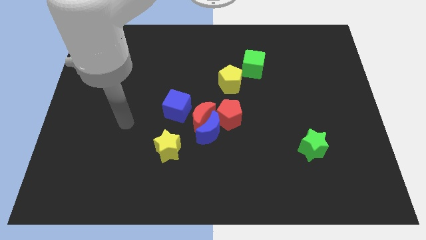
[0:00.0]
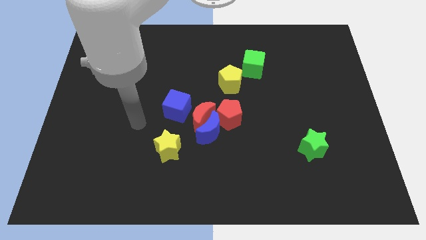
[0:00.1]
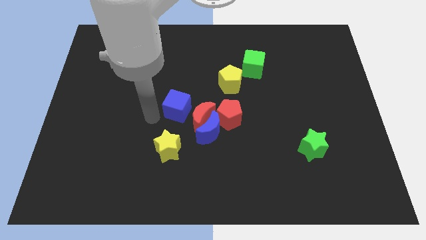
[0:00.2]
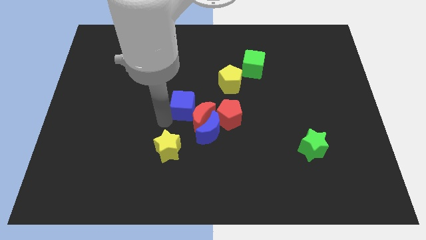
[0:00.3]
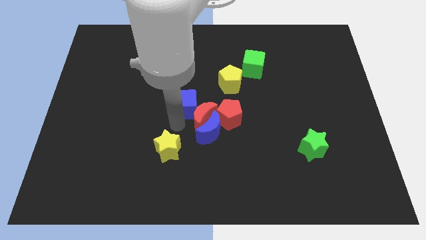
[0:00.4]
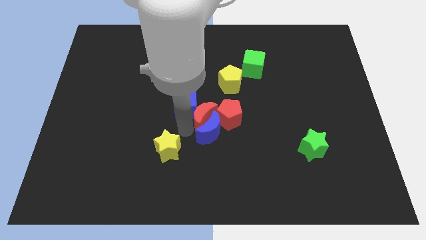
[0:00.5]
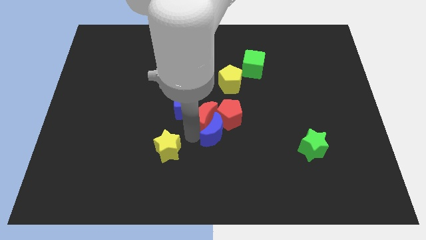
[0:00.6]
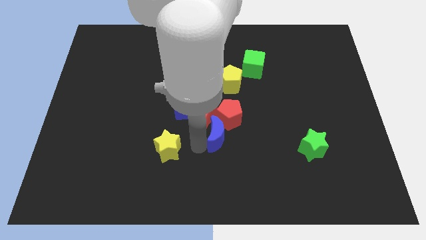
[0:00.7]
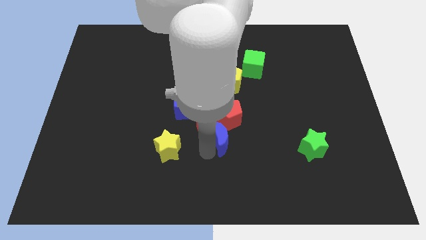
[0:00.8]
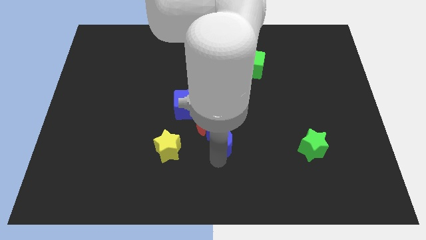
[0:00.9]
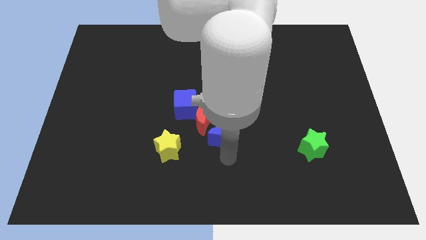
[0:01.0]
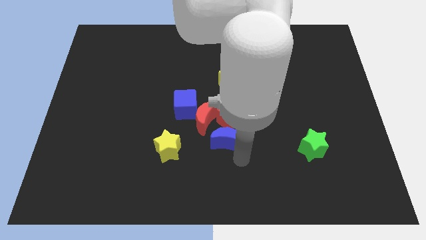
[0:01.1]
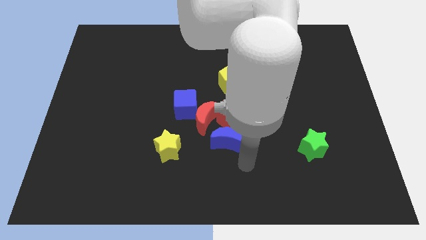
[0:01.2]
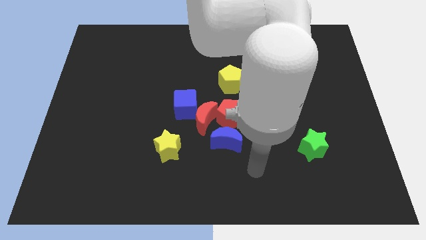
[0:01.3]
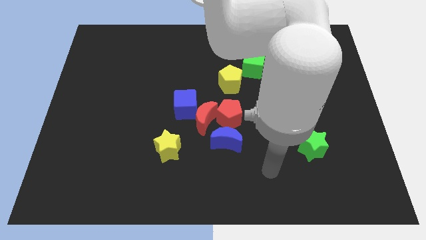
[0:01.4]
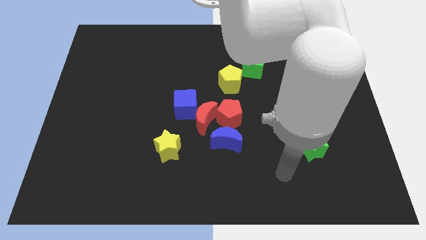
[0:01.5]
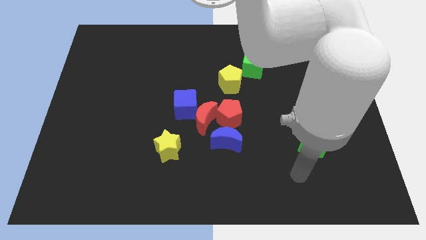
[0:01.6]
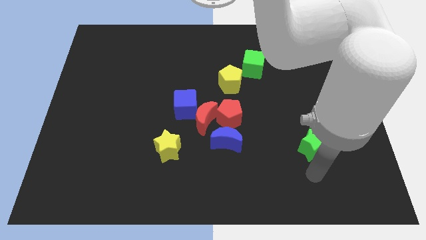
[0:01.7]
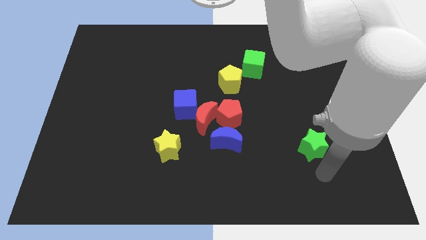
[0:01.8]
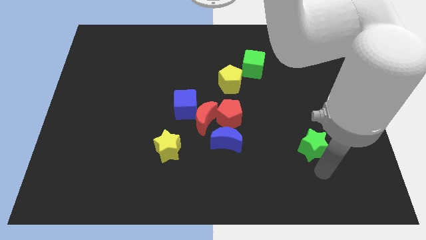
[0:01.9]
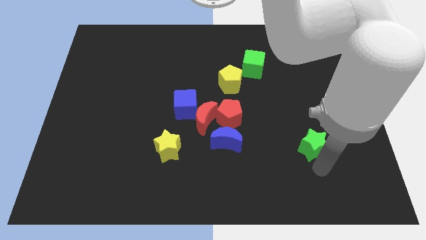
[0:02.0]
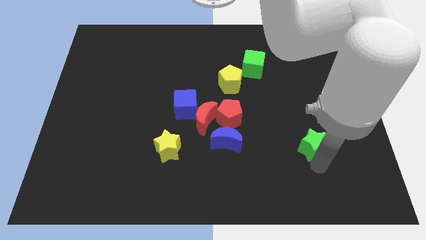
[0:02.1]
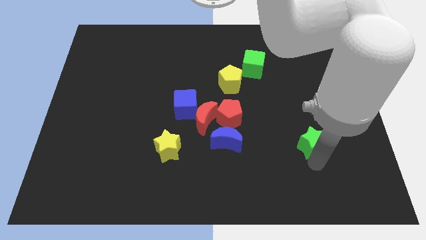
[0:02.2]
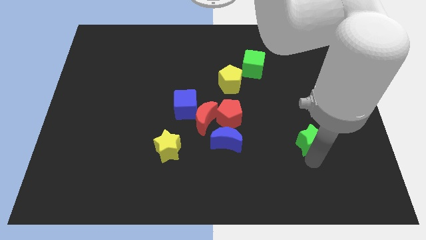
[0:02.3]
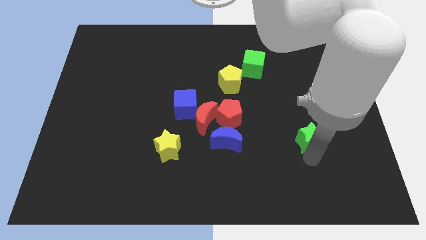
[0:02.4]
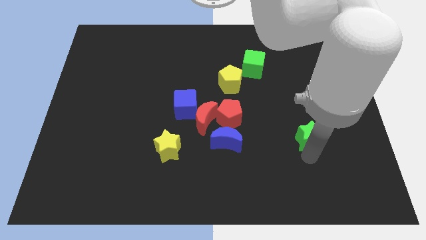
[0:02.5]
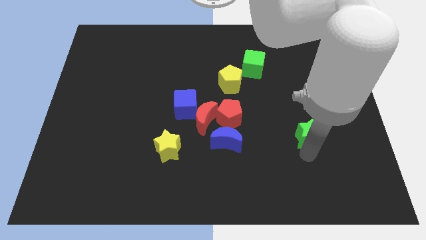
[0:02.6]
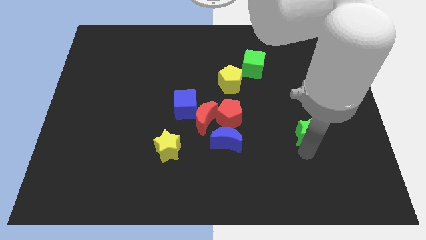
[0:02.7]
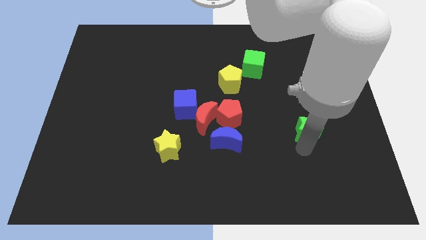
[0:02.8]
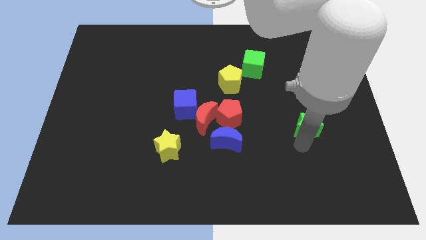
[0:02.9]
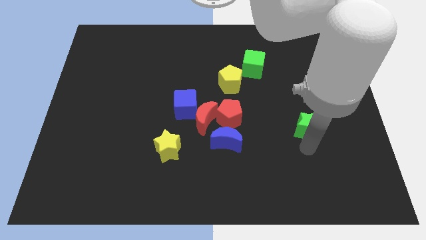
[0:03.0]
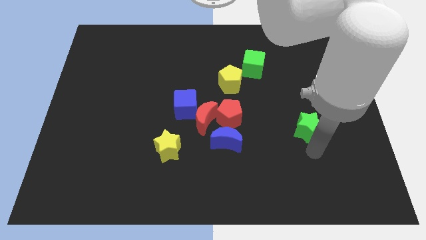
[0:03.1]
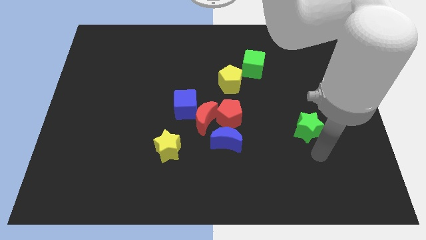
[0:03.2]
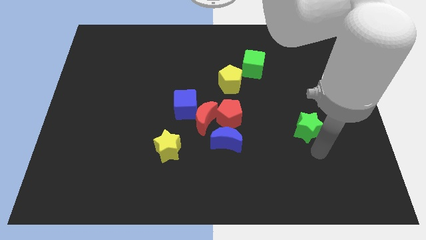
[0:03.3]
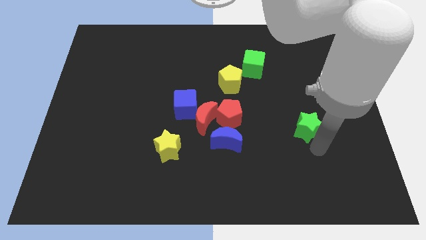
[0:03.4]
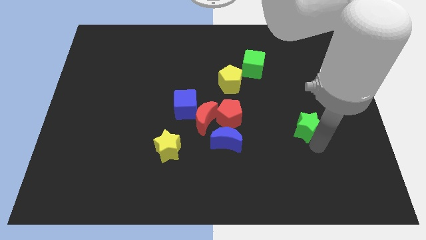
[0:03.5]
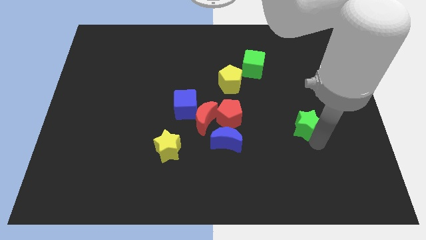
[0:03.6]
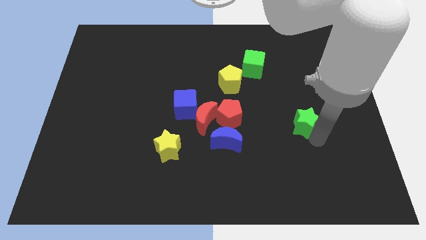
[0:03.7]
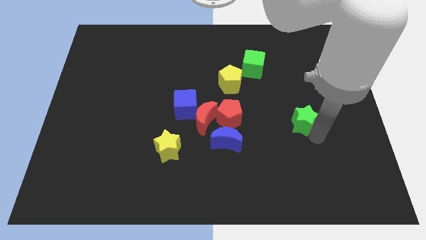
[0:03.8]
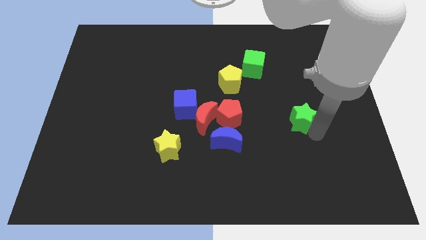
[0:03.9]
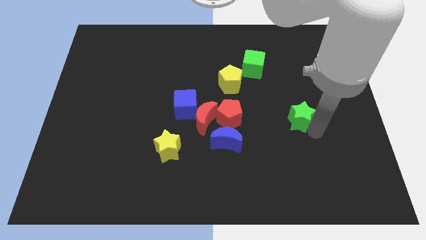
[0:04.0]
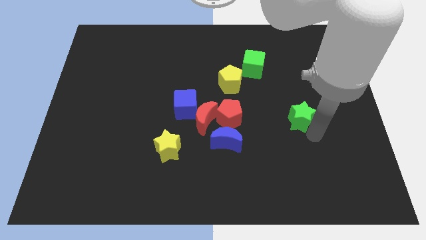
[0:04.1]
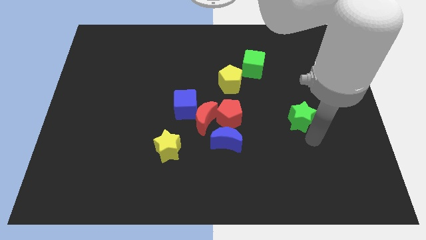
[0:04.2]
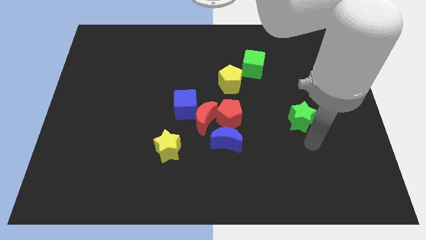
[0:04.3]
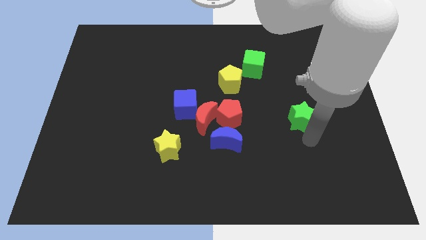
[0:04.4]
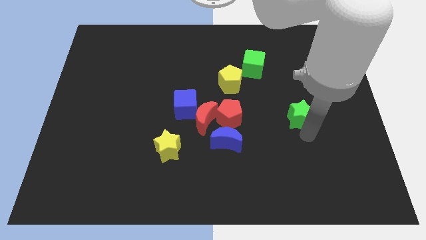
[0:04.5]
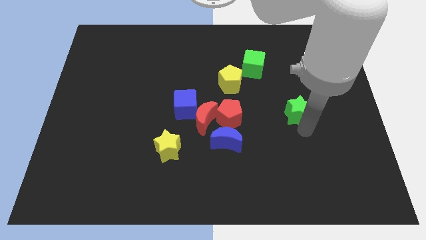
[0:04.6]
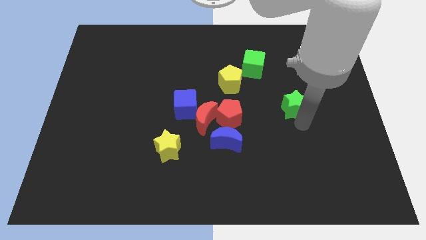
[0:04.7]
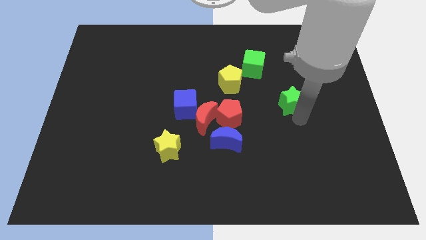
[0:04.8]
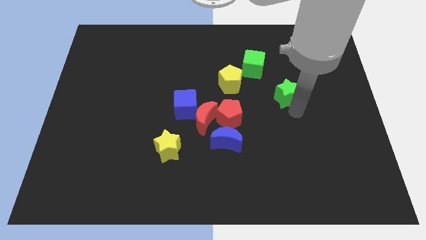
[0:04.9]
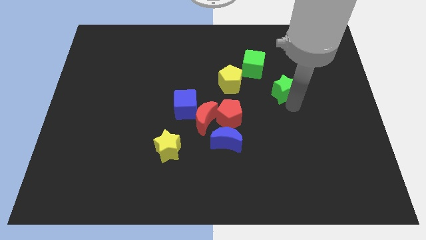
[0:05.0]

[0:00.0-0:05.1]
slide the green star to the right side of the yellow pentagon
